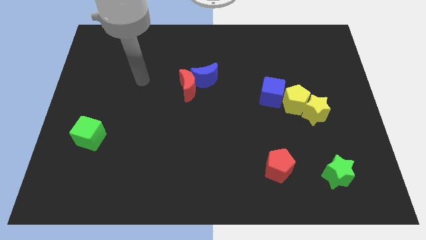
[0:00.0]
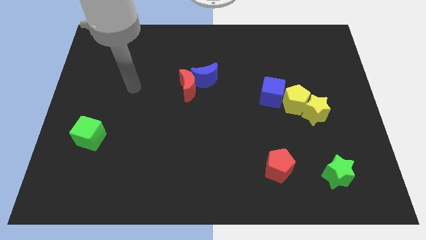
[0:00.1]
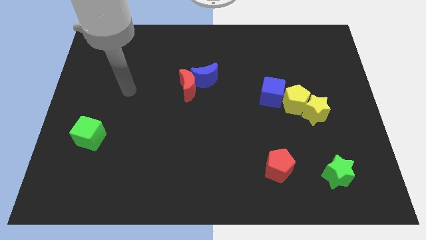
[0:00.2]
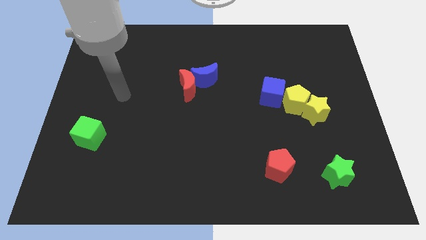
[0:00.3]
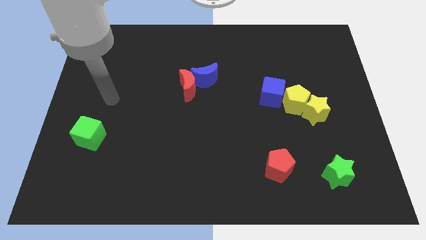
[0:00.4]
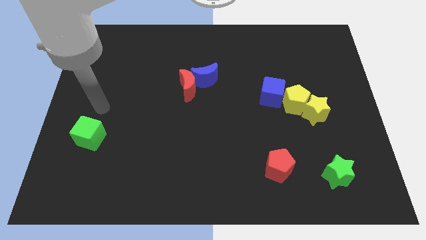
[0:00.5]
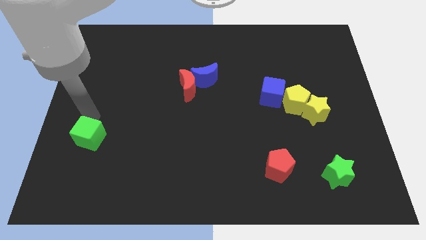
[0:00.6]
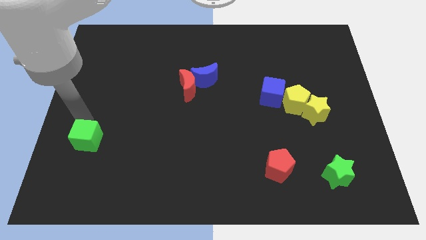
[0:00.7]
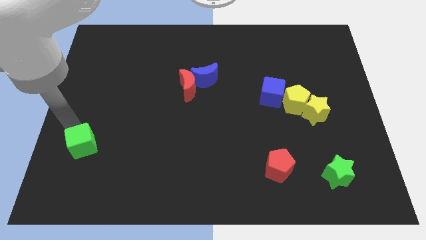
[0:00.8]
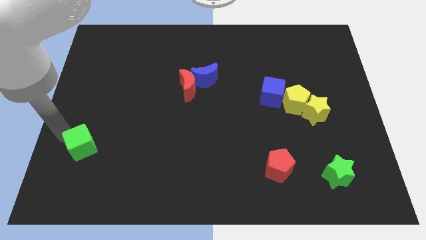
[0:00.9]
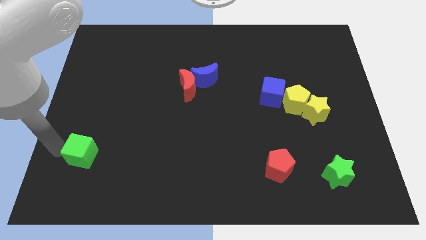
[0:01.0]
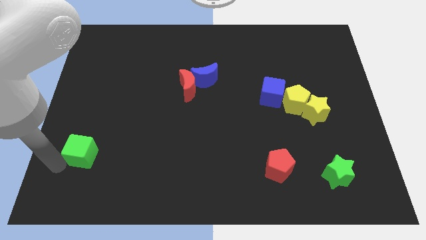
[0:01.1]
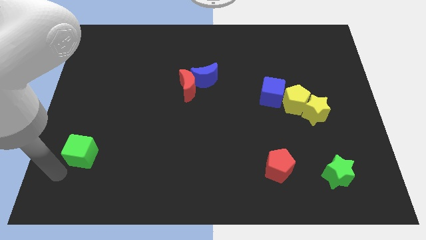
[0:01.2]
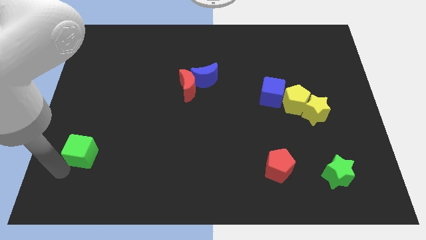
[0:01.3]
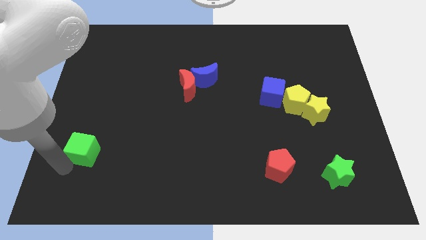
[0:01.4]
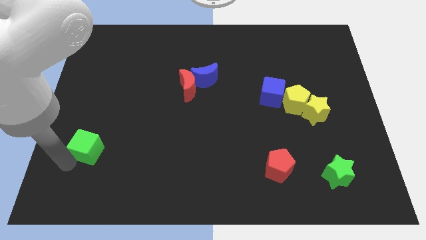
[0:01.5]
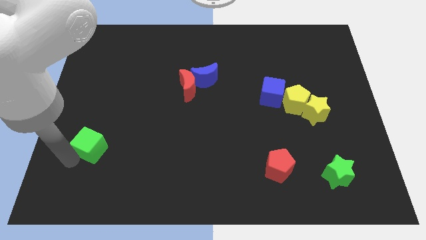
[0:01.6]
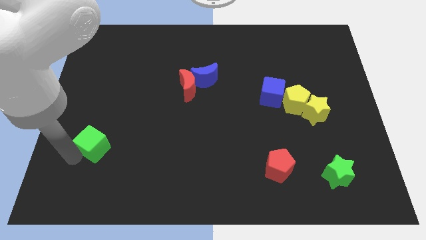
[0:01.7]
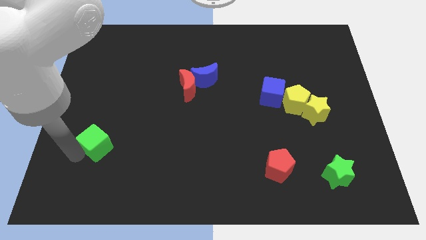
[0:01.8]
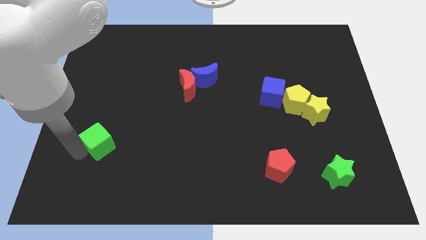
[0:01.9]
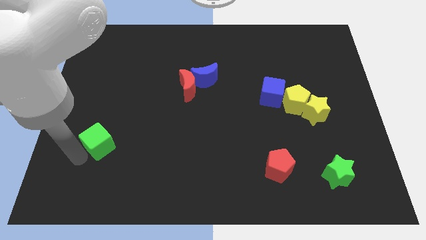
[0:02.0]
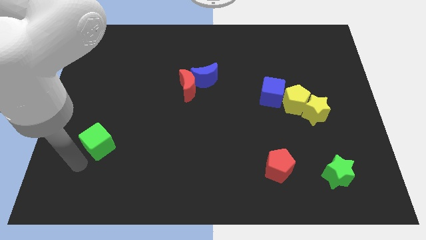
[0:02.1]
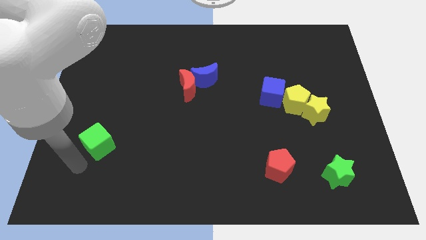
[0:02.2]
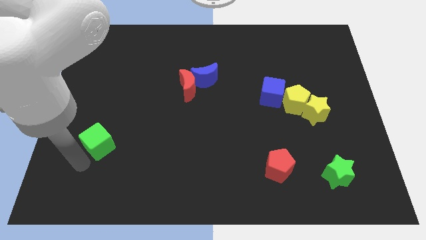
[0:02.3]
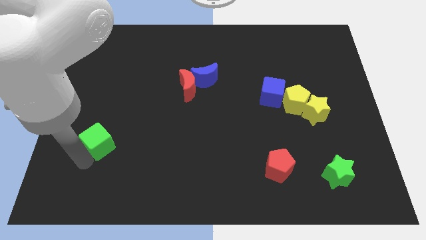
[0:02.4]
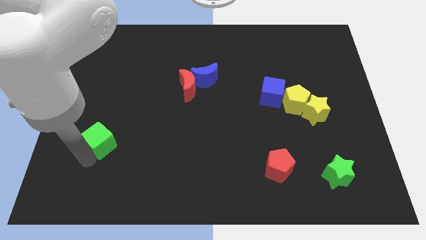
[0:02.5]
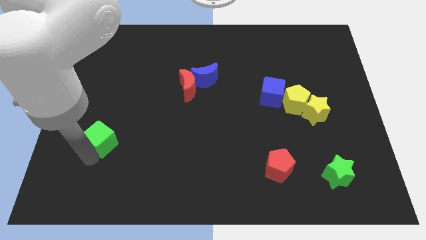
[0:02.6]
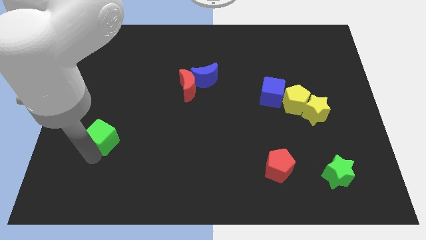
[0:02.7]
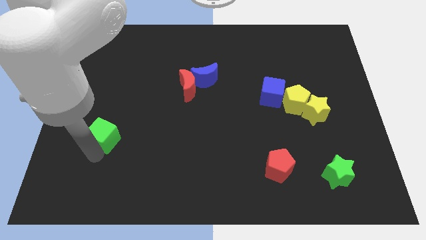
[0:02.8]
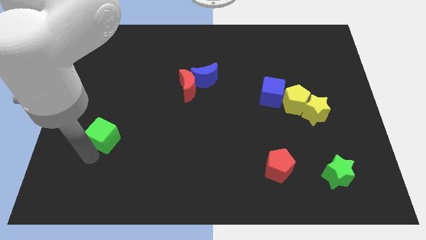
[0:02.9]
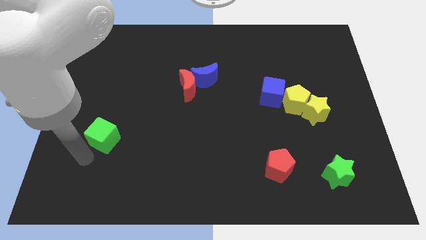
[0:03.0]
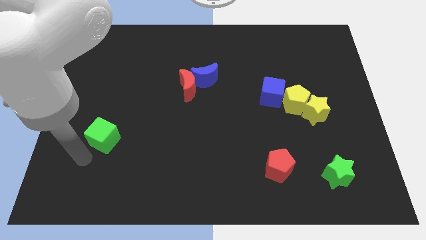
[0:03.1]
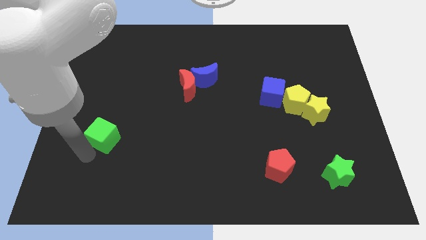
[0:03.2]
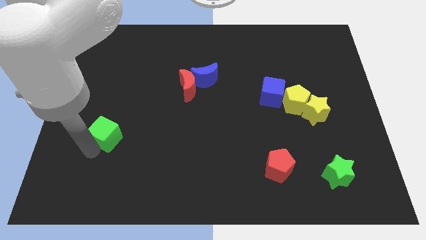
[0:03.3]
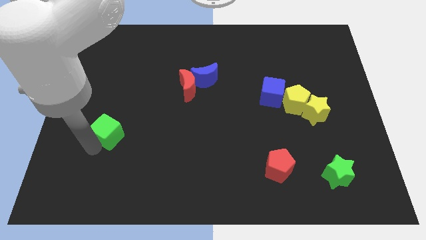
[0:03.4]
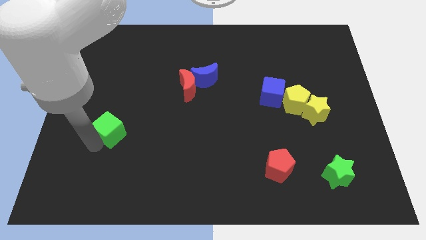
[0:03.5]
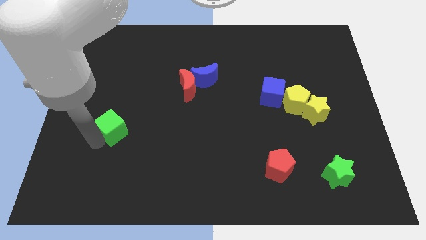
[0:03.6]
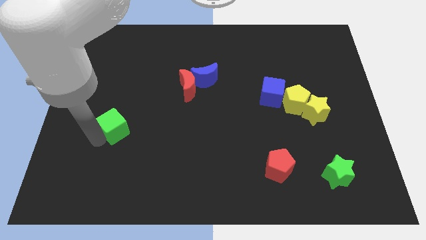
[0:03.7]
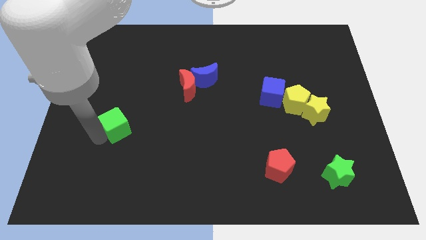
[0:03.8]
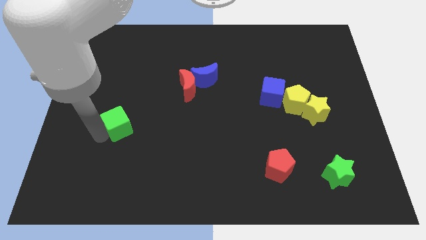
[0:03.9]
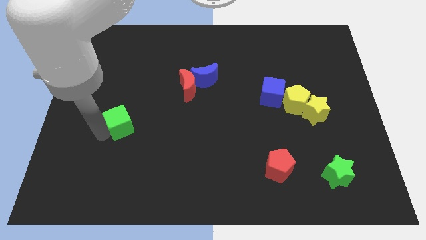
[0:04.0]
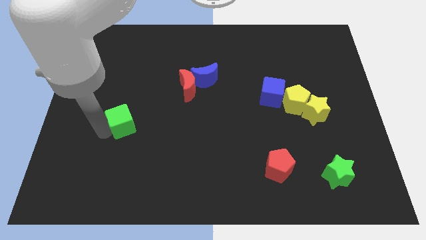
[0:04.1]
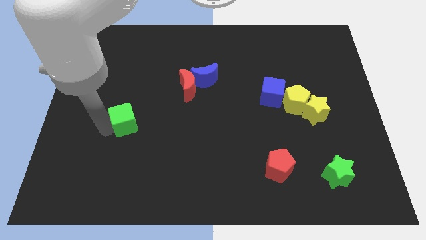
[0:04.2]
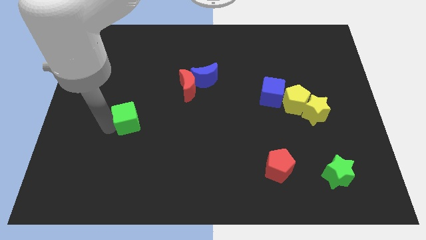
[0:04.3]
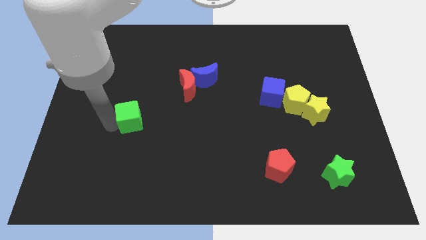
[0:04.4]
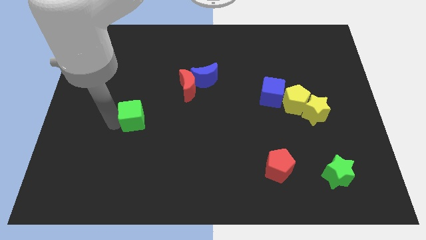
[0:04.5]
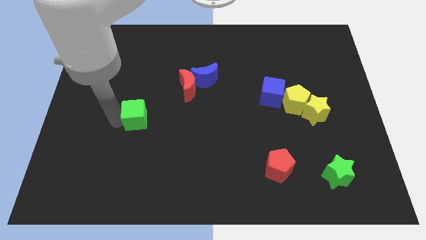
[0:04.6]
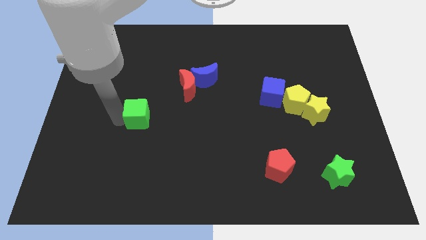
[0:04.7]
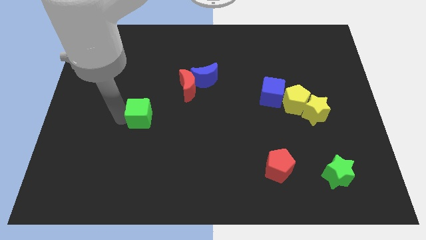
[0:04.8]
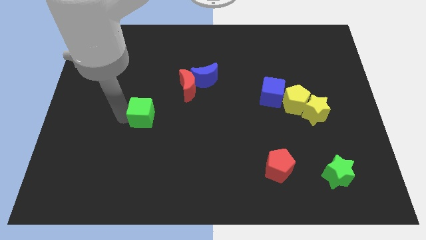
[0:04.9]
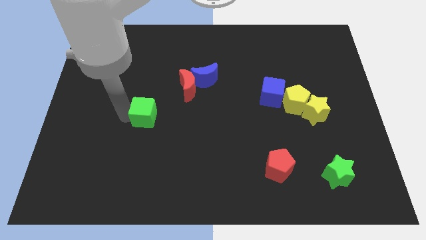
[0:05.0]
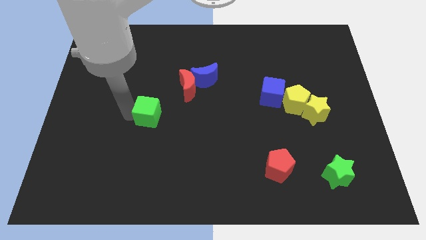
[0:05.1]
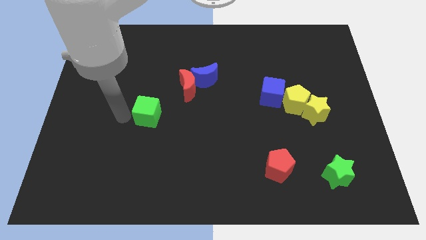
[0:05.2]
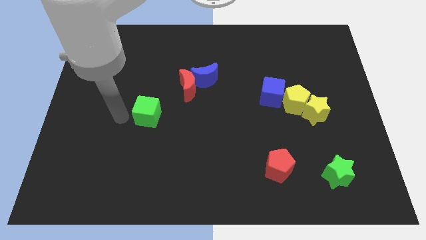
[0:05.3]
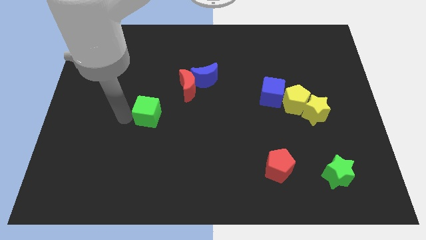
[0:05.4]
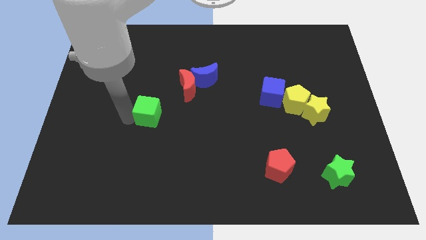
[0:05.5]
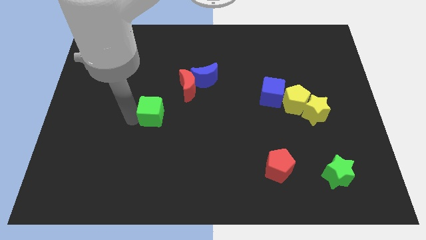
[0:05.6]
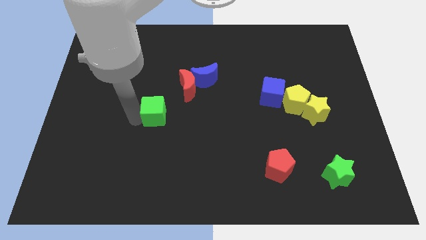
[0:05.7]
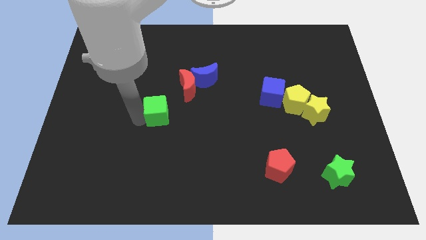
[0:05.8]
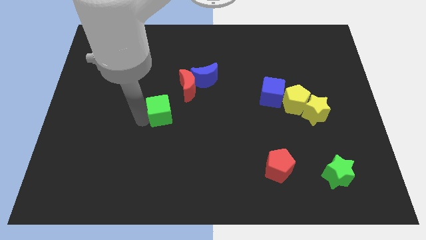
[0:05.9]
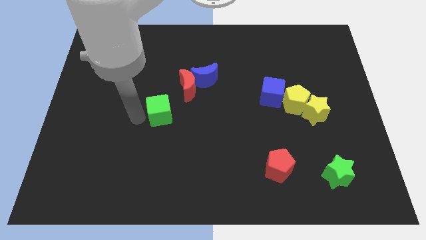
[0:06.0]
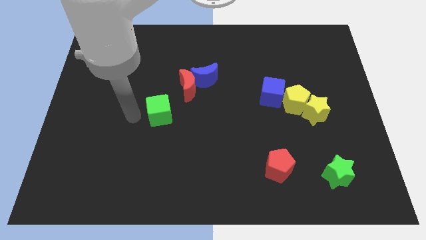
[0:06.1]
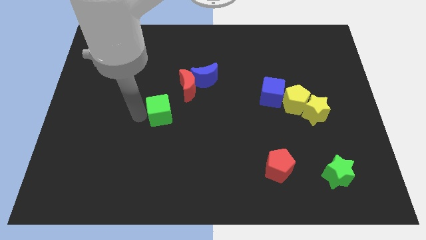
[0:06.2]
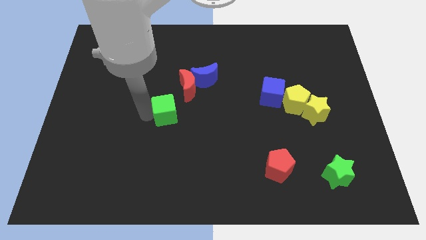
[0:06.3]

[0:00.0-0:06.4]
put the green cube to the center

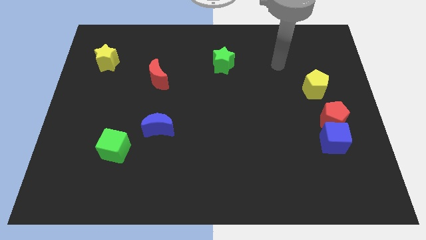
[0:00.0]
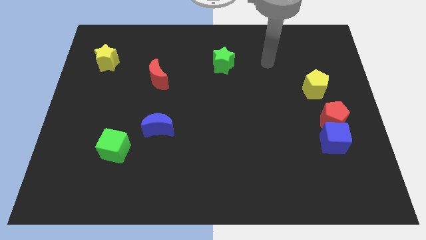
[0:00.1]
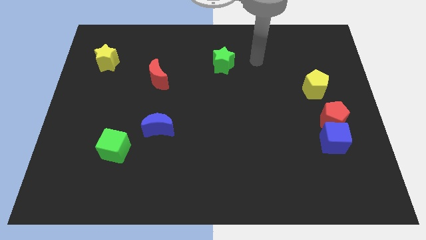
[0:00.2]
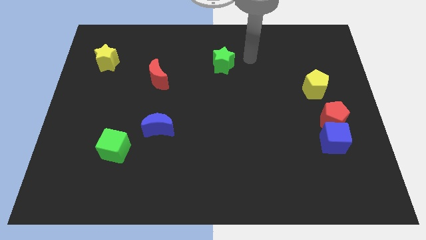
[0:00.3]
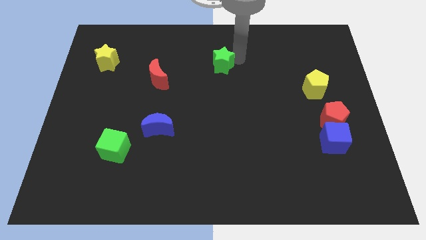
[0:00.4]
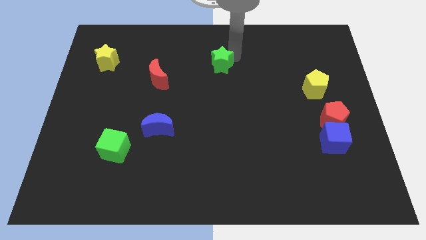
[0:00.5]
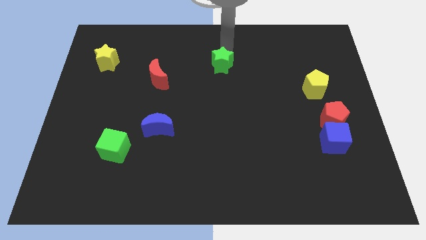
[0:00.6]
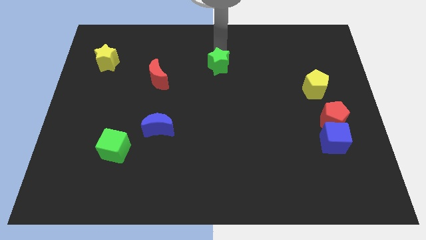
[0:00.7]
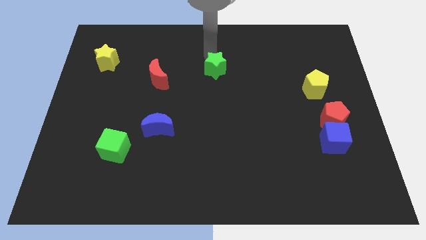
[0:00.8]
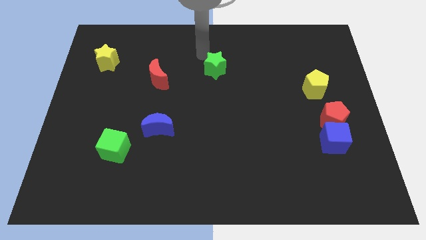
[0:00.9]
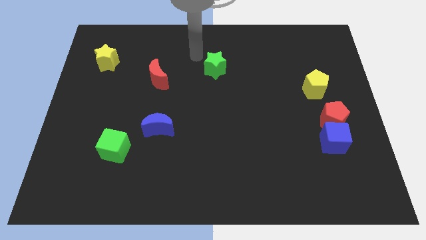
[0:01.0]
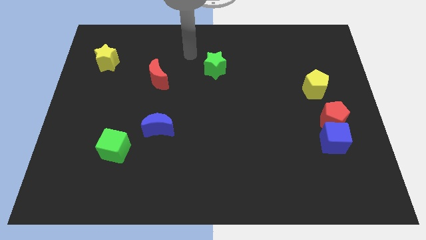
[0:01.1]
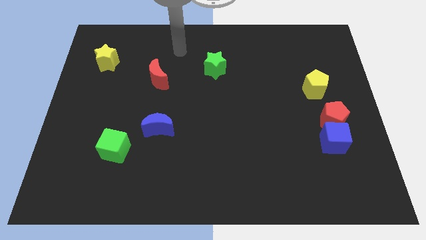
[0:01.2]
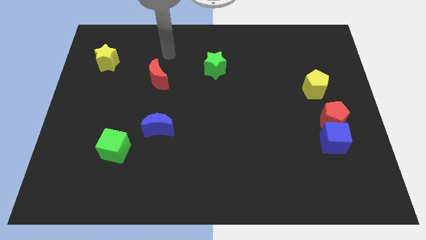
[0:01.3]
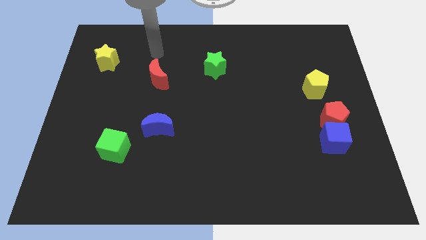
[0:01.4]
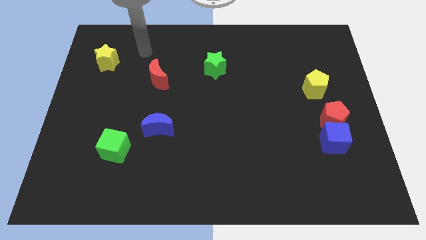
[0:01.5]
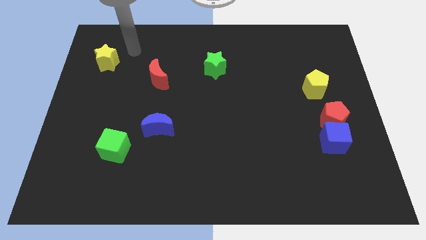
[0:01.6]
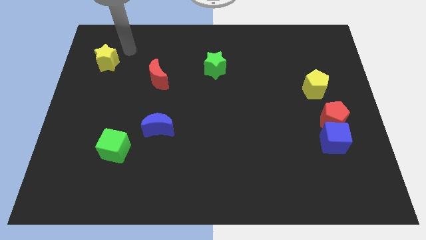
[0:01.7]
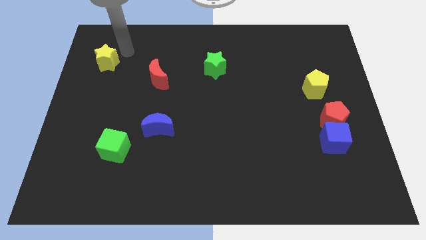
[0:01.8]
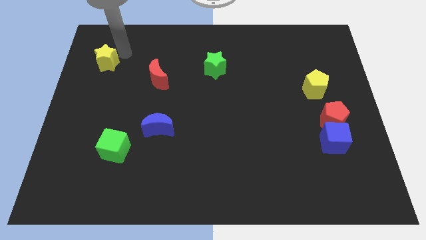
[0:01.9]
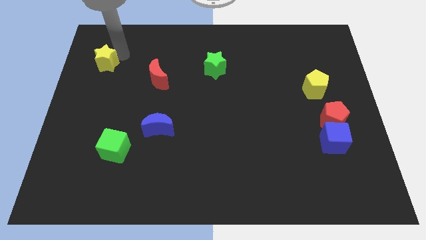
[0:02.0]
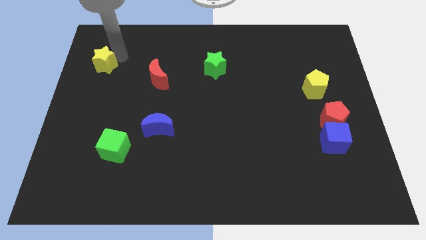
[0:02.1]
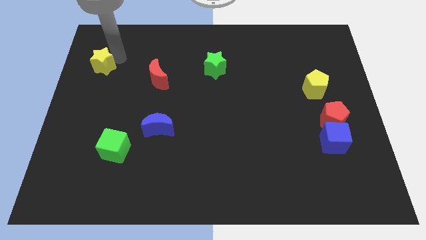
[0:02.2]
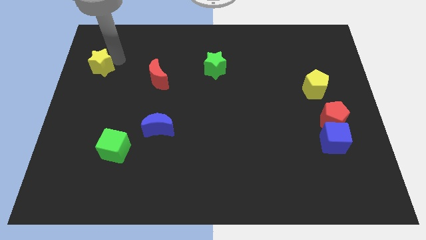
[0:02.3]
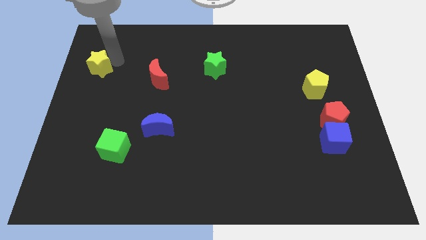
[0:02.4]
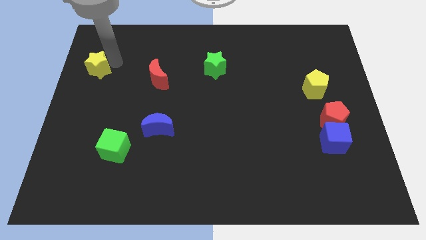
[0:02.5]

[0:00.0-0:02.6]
move the yellow star to the center left
